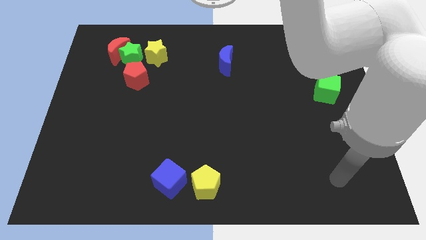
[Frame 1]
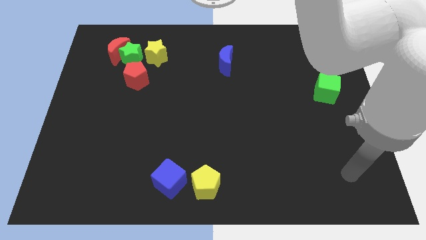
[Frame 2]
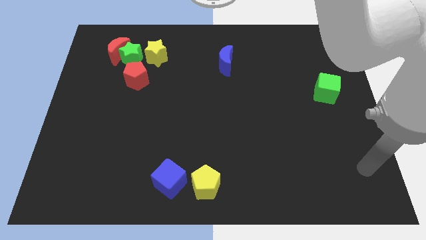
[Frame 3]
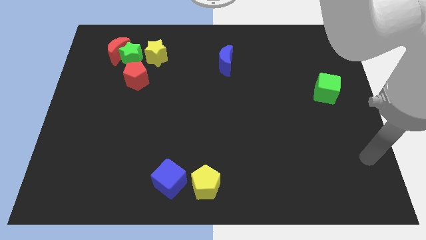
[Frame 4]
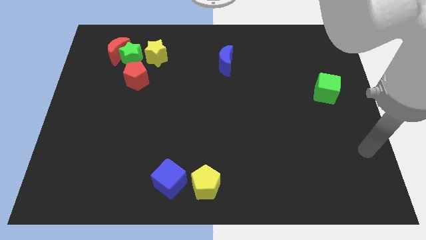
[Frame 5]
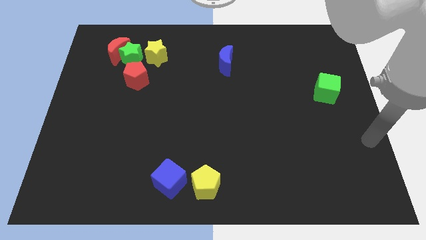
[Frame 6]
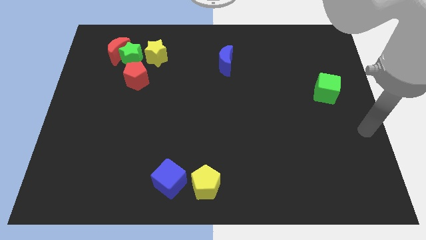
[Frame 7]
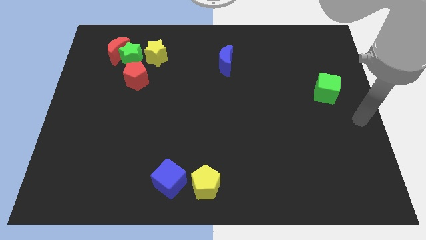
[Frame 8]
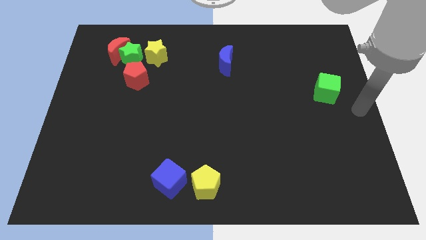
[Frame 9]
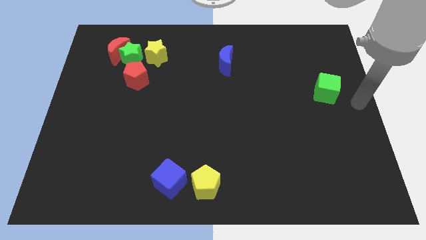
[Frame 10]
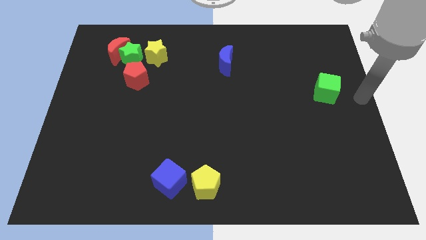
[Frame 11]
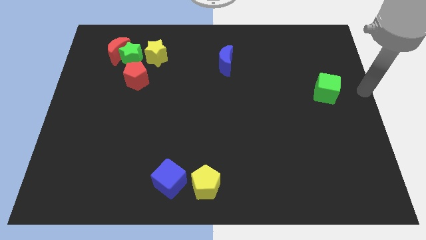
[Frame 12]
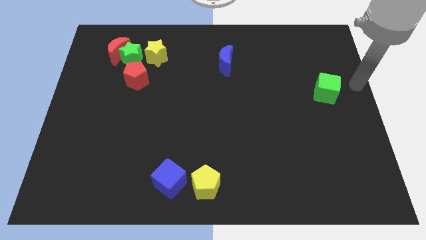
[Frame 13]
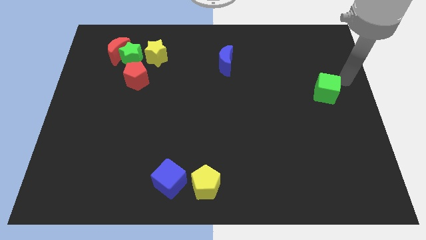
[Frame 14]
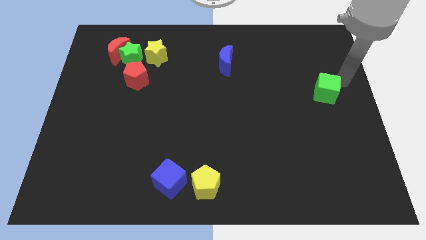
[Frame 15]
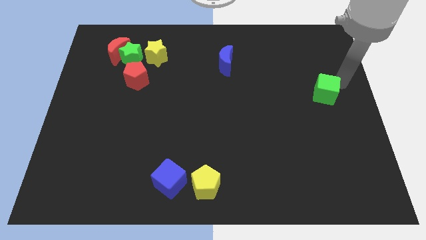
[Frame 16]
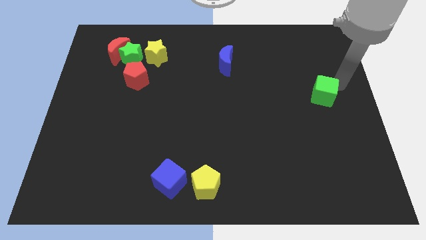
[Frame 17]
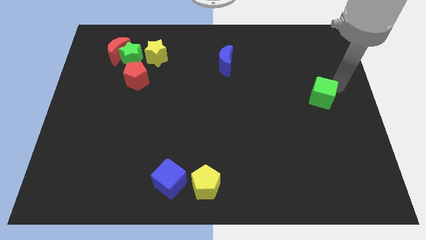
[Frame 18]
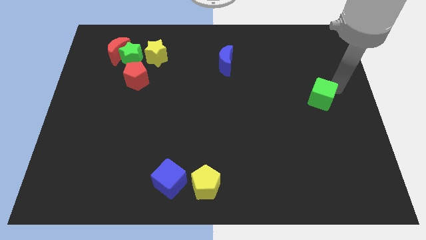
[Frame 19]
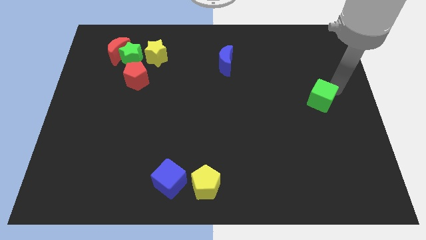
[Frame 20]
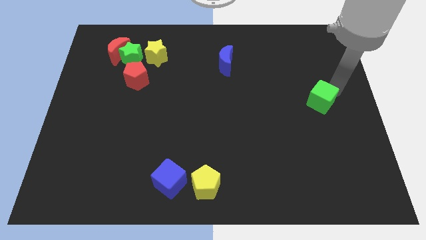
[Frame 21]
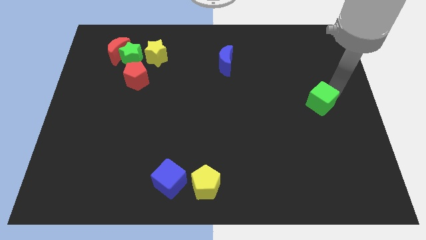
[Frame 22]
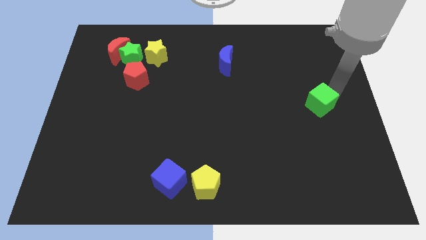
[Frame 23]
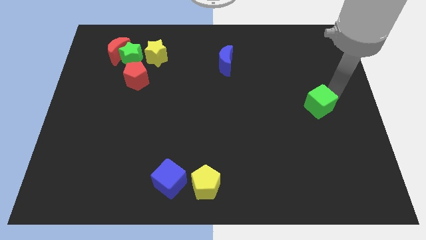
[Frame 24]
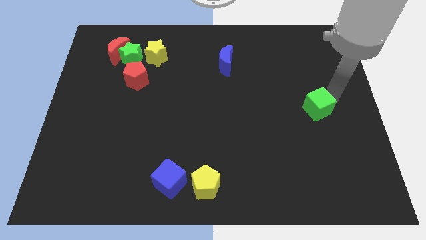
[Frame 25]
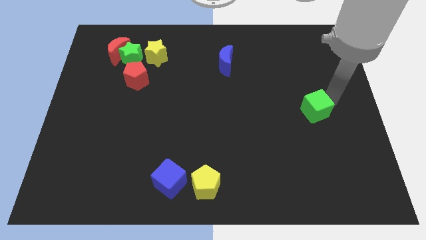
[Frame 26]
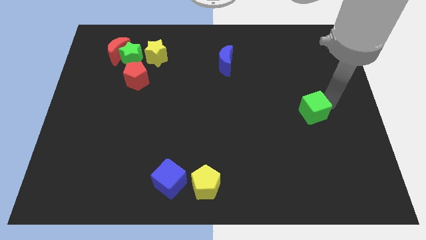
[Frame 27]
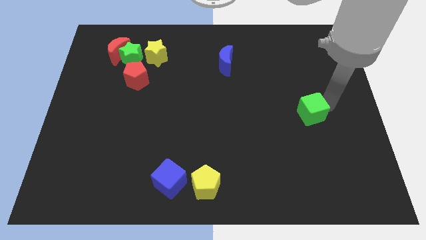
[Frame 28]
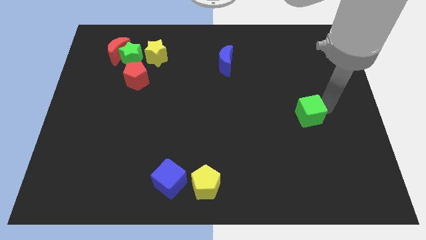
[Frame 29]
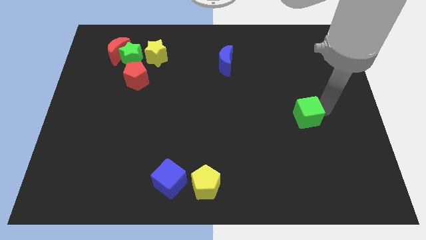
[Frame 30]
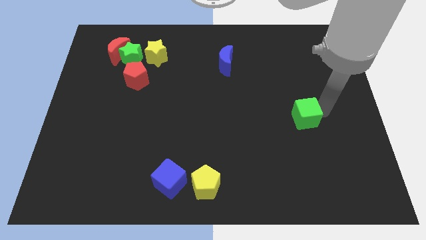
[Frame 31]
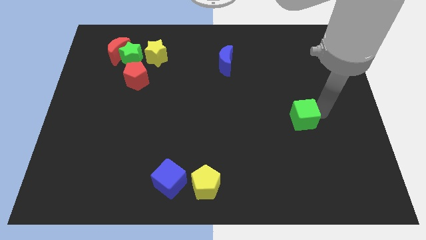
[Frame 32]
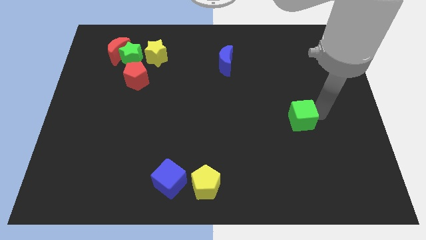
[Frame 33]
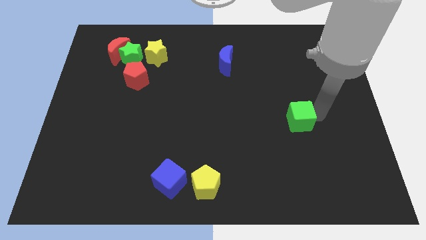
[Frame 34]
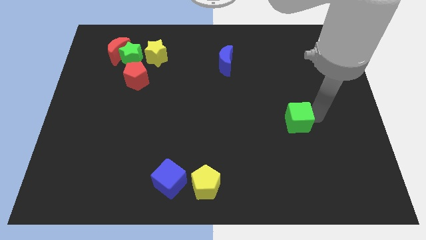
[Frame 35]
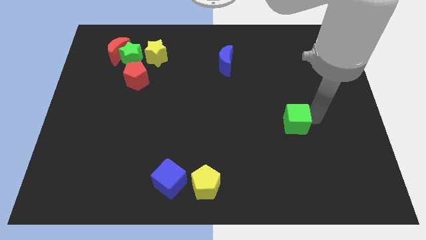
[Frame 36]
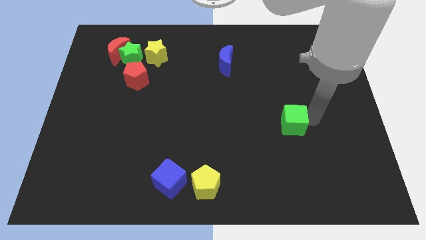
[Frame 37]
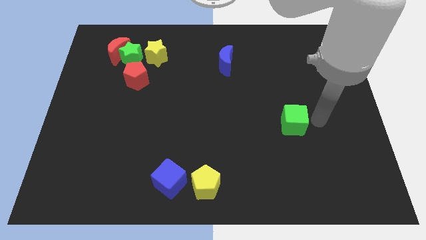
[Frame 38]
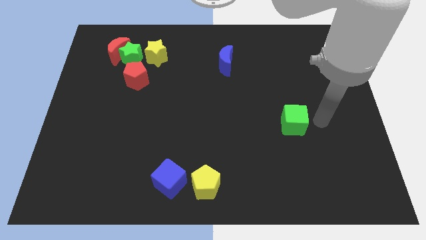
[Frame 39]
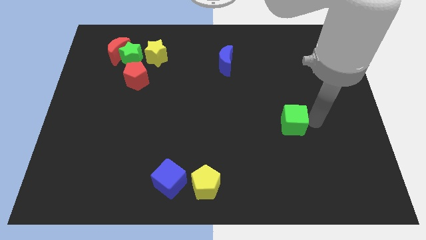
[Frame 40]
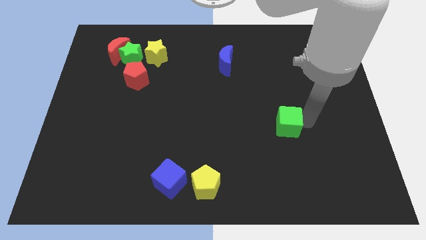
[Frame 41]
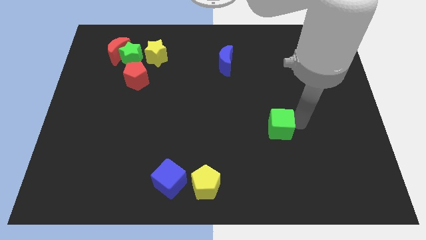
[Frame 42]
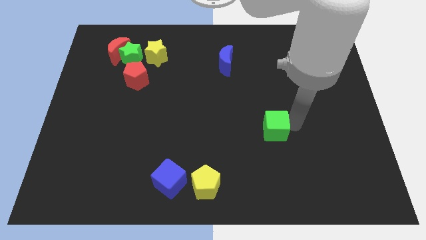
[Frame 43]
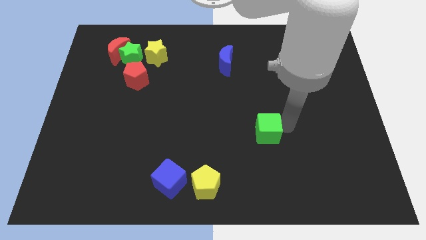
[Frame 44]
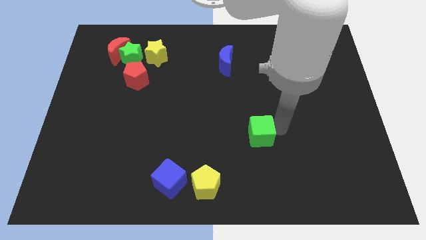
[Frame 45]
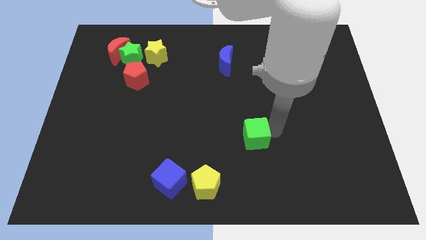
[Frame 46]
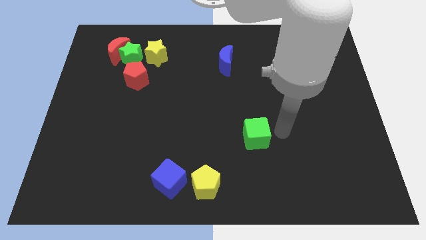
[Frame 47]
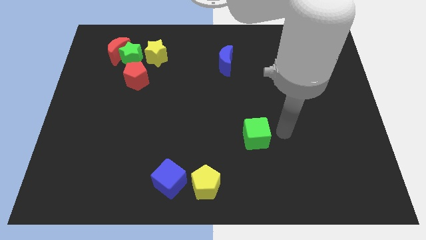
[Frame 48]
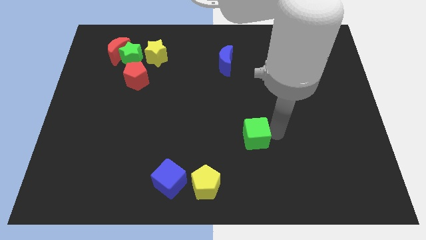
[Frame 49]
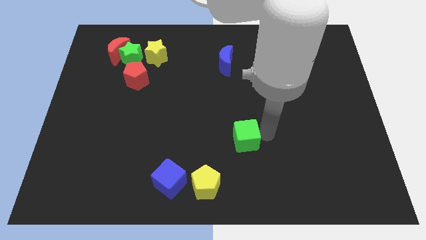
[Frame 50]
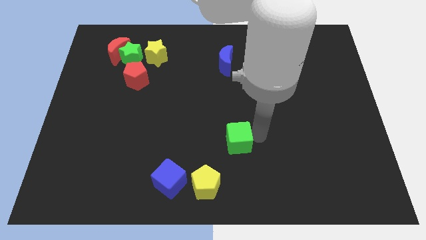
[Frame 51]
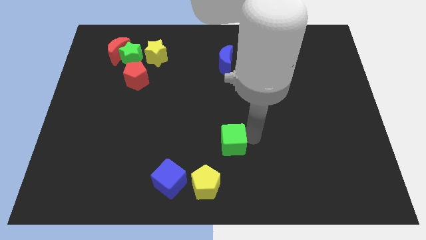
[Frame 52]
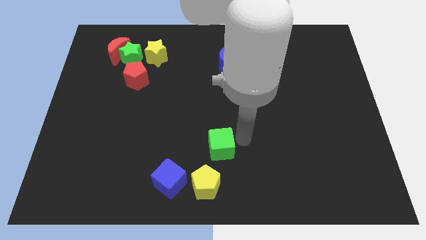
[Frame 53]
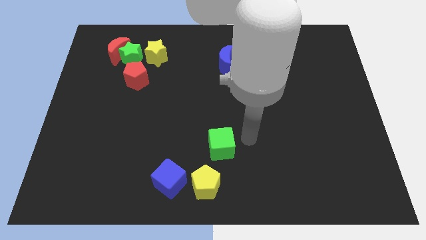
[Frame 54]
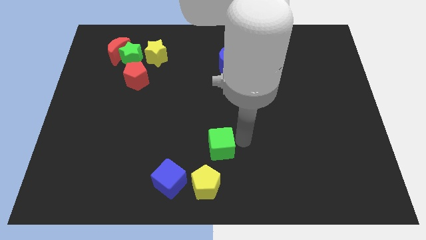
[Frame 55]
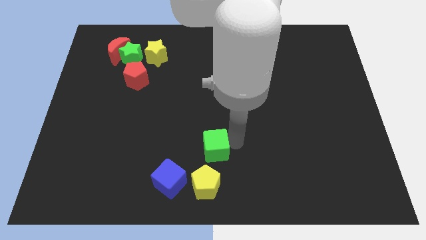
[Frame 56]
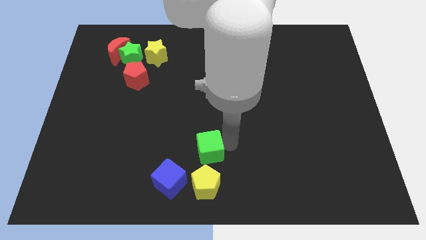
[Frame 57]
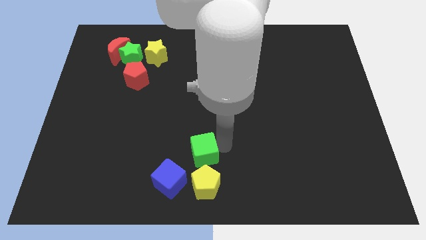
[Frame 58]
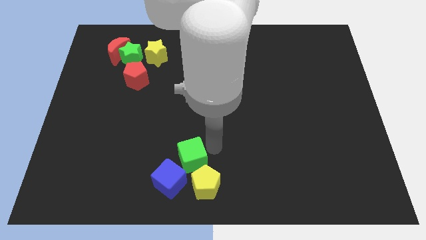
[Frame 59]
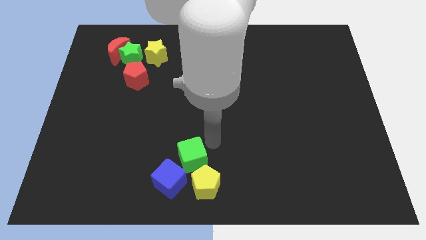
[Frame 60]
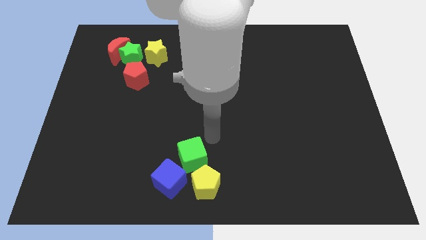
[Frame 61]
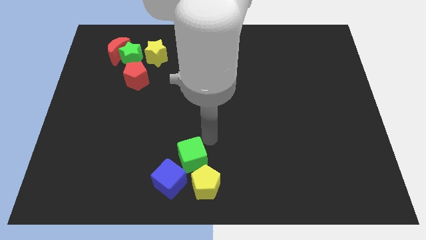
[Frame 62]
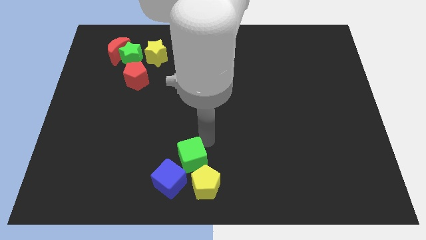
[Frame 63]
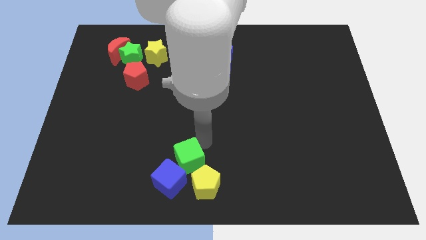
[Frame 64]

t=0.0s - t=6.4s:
put the green cube towards the blue cube

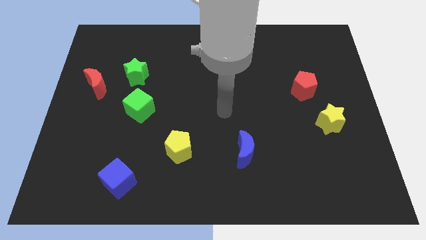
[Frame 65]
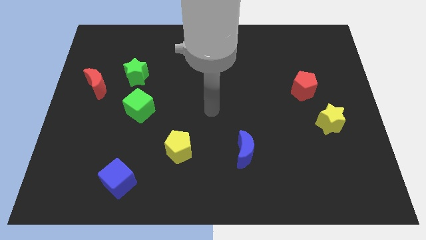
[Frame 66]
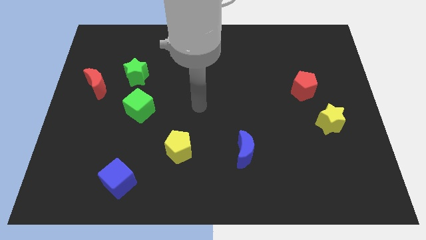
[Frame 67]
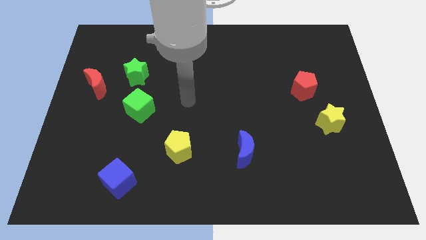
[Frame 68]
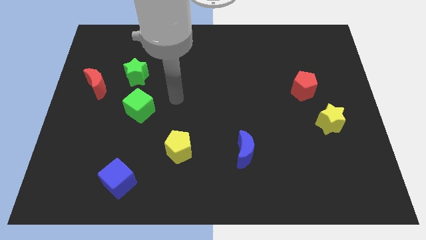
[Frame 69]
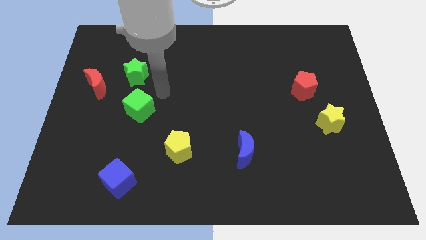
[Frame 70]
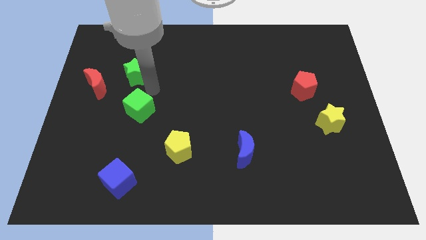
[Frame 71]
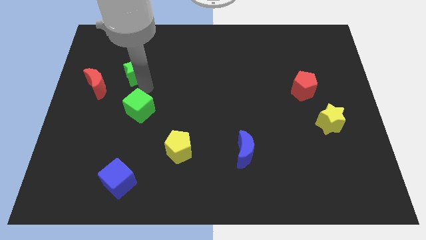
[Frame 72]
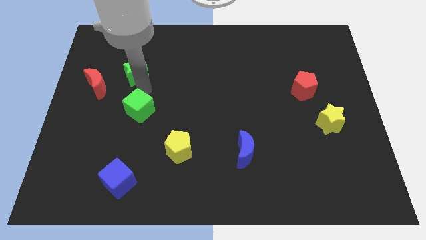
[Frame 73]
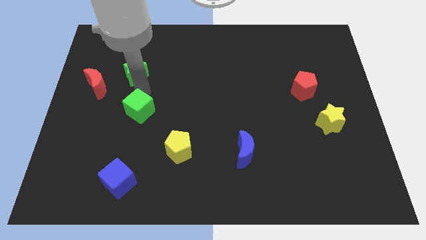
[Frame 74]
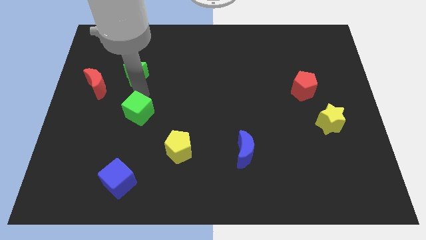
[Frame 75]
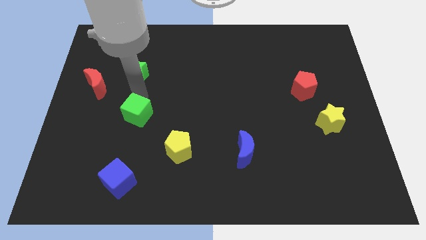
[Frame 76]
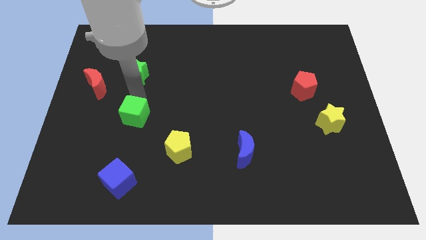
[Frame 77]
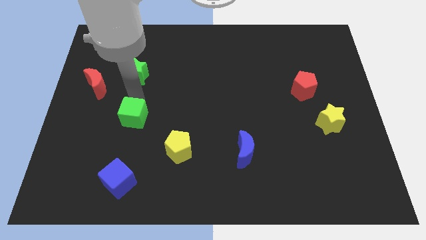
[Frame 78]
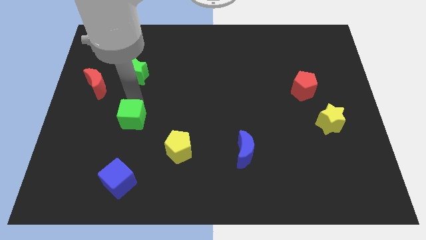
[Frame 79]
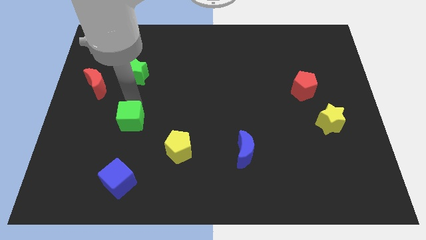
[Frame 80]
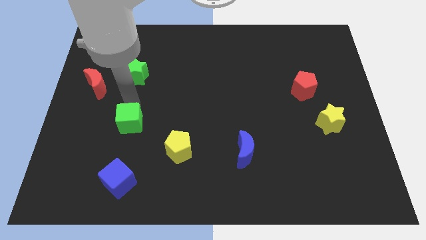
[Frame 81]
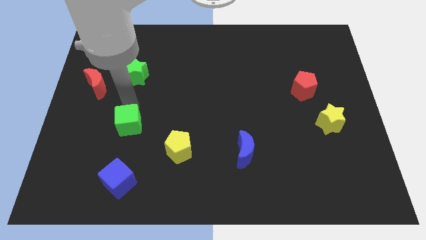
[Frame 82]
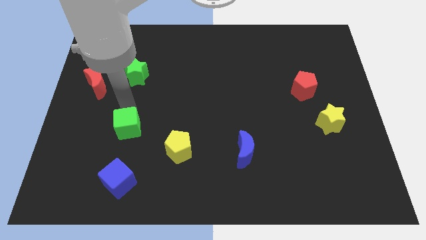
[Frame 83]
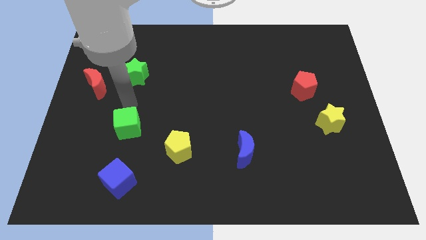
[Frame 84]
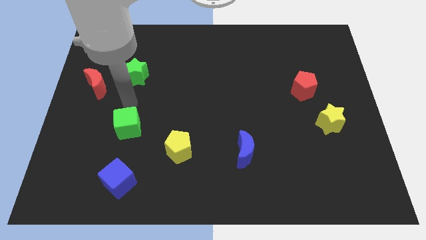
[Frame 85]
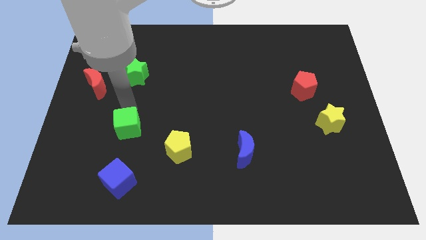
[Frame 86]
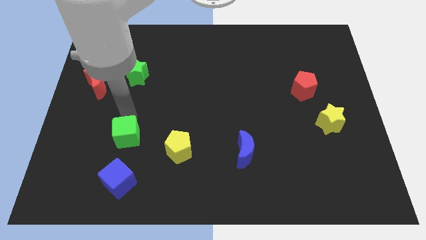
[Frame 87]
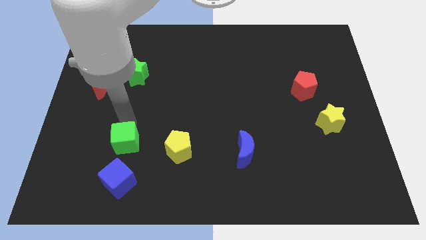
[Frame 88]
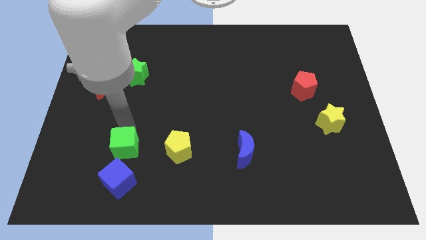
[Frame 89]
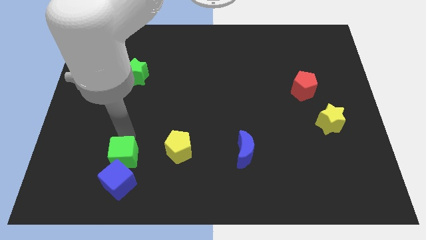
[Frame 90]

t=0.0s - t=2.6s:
push the green cube close to the blue cube
